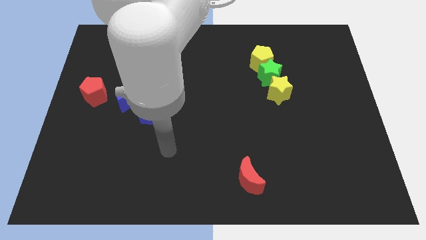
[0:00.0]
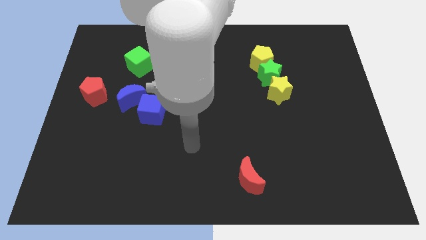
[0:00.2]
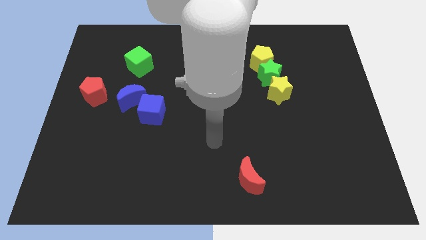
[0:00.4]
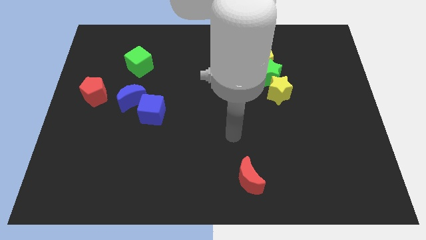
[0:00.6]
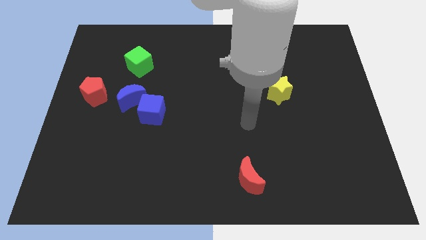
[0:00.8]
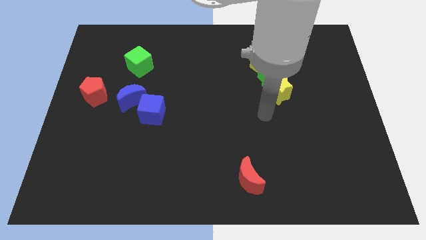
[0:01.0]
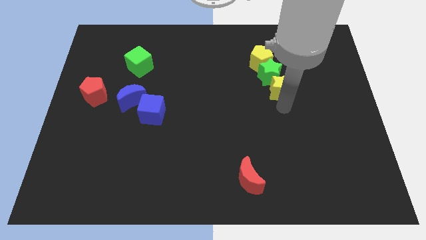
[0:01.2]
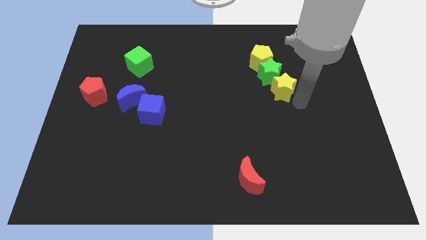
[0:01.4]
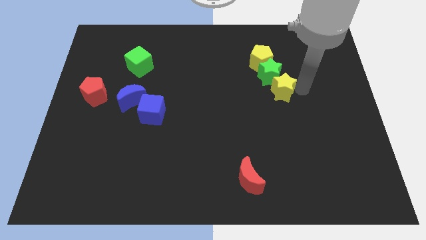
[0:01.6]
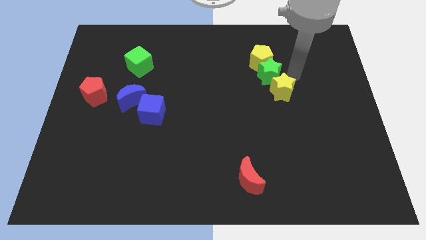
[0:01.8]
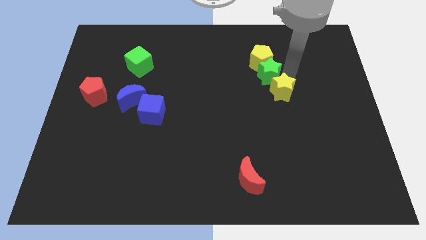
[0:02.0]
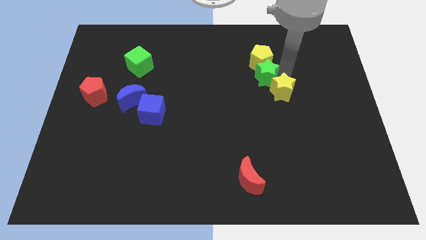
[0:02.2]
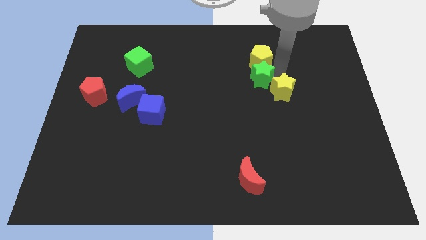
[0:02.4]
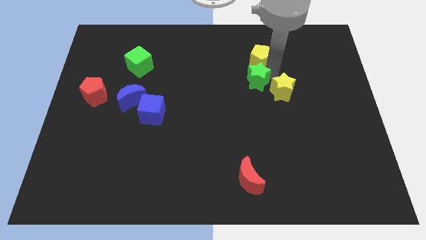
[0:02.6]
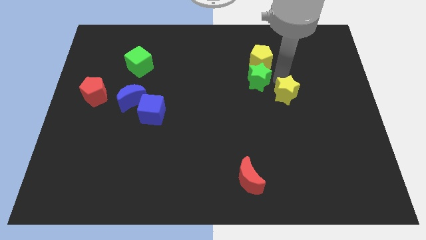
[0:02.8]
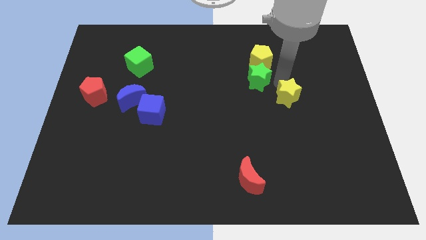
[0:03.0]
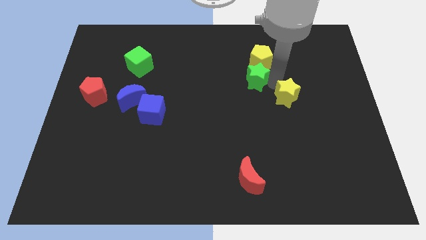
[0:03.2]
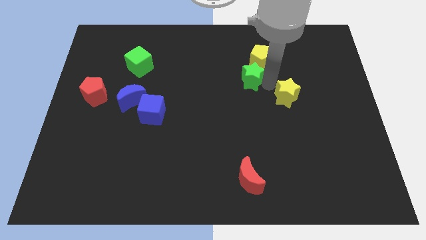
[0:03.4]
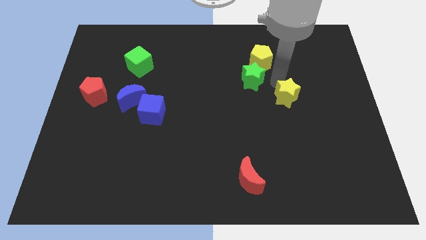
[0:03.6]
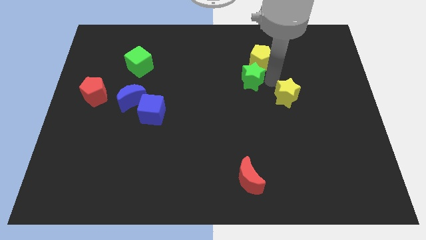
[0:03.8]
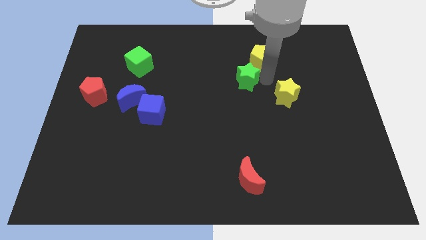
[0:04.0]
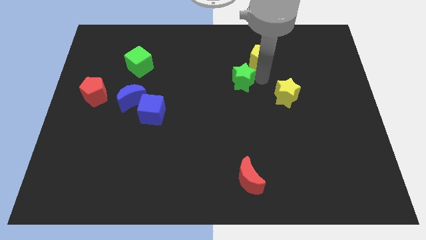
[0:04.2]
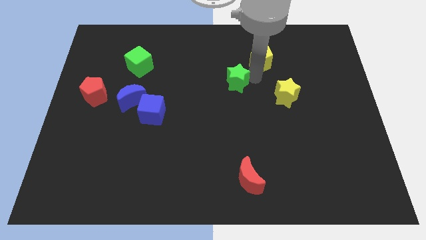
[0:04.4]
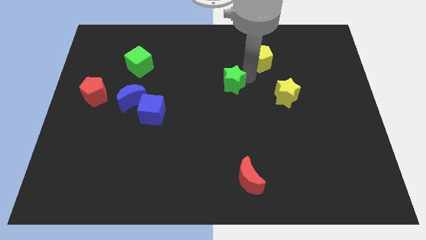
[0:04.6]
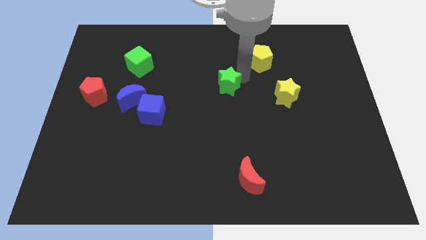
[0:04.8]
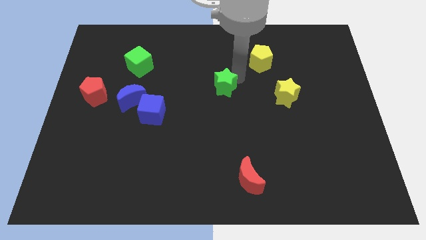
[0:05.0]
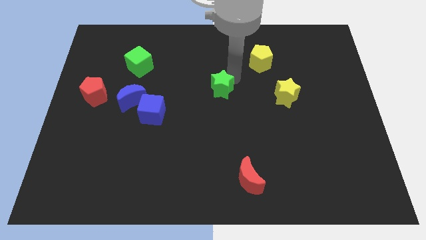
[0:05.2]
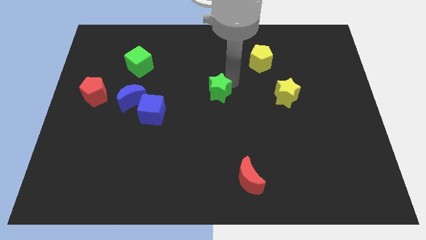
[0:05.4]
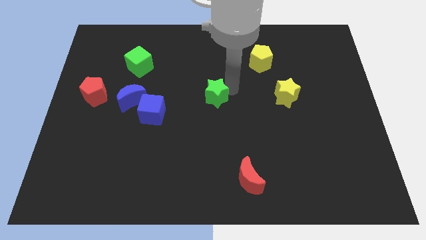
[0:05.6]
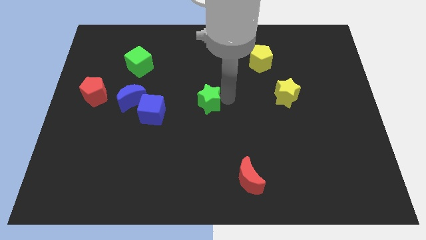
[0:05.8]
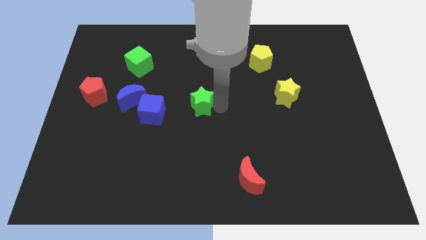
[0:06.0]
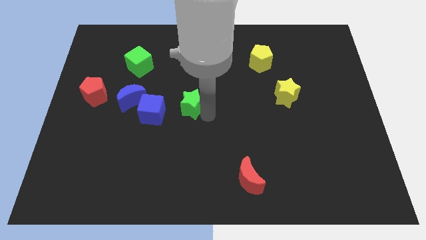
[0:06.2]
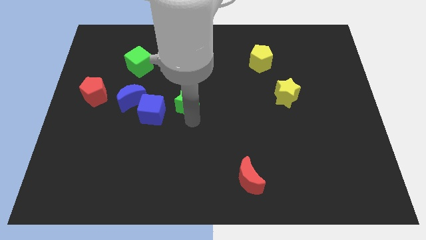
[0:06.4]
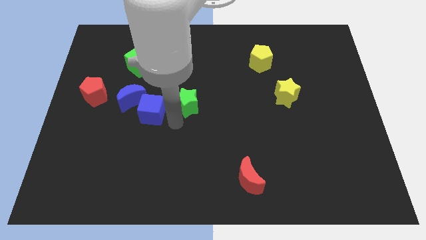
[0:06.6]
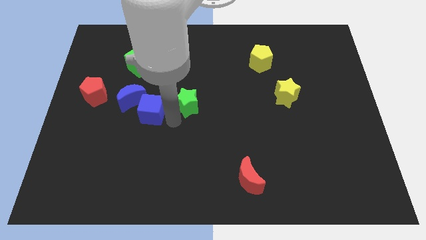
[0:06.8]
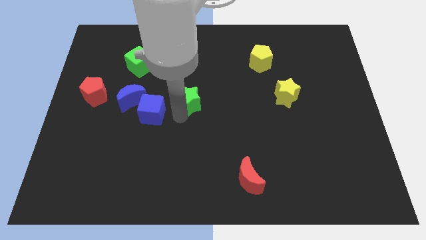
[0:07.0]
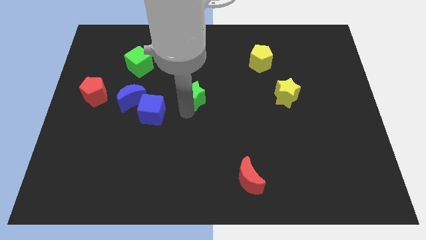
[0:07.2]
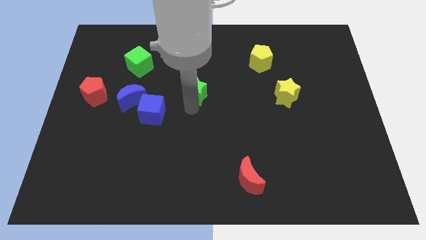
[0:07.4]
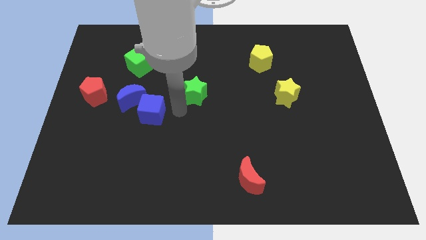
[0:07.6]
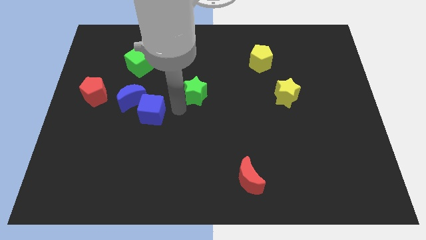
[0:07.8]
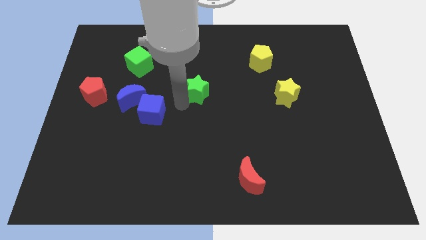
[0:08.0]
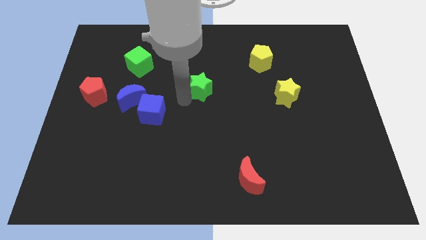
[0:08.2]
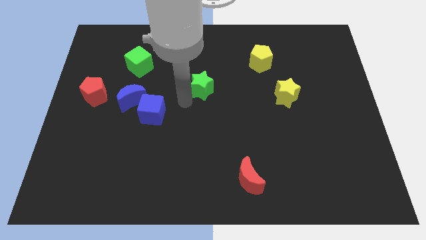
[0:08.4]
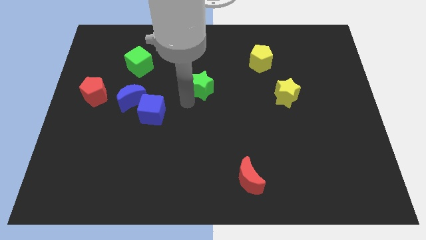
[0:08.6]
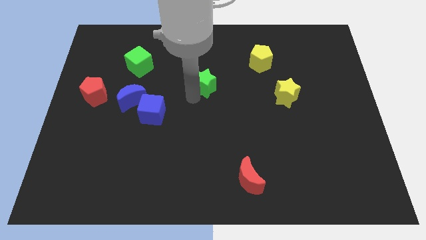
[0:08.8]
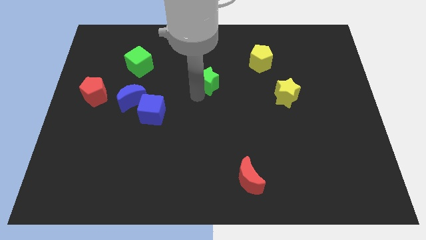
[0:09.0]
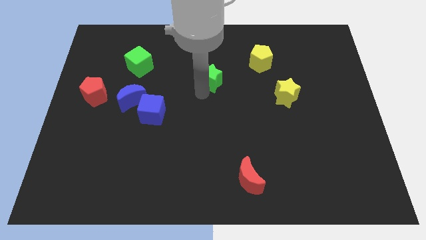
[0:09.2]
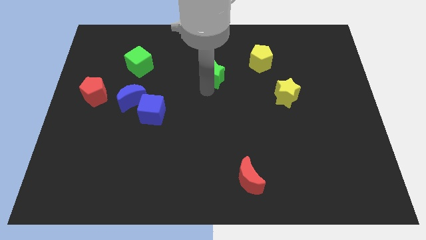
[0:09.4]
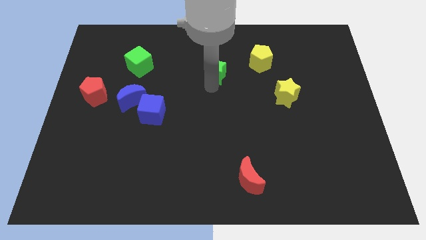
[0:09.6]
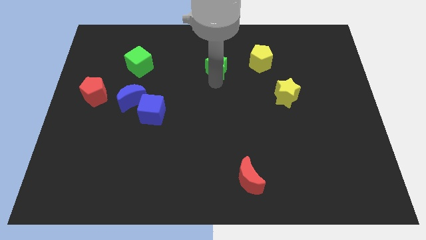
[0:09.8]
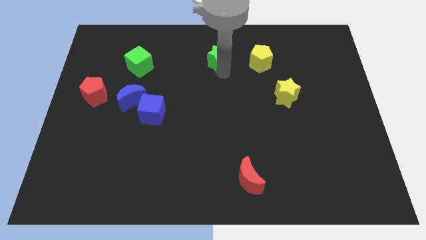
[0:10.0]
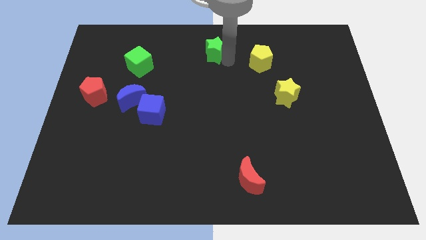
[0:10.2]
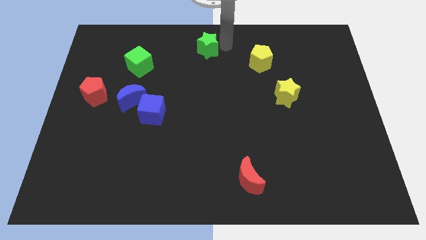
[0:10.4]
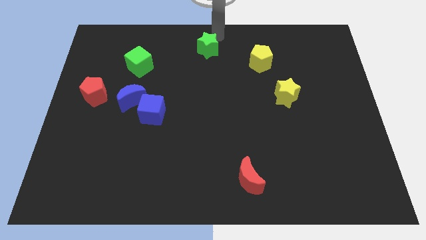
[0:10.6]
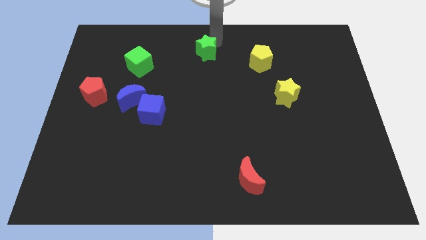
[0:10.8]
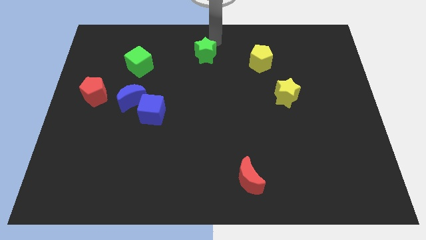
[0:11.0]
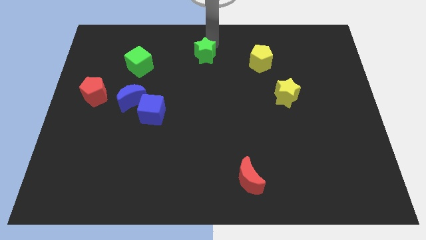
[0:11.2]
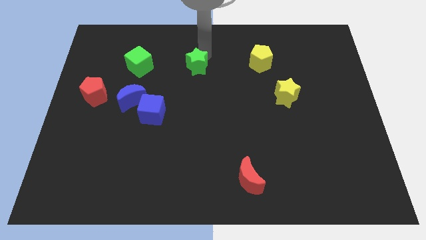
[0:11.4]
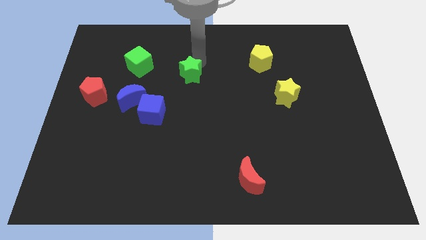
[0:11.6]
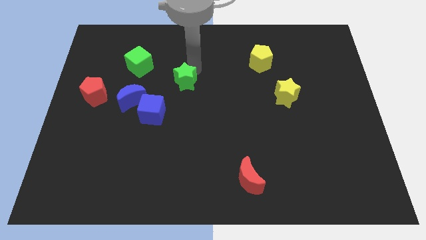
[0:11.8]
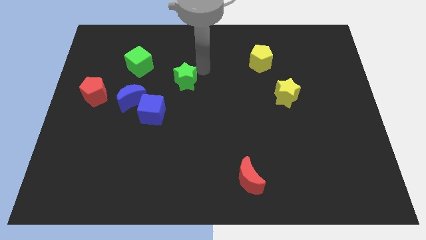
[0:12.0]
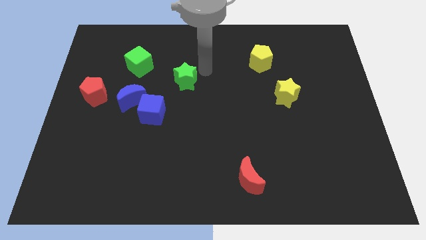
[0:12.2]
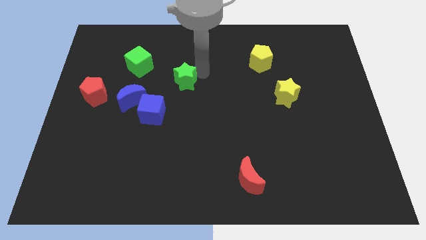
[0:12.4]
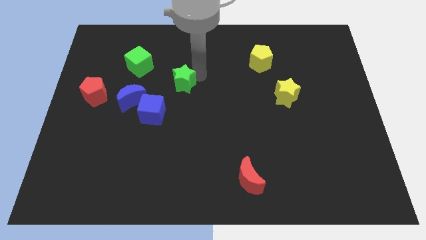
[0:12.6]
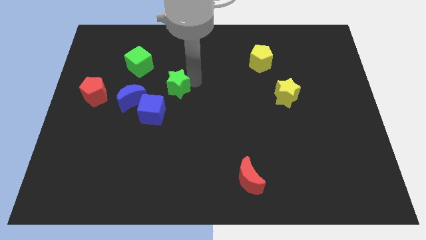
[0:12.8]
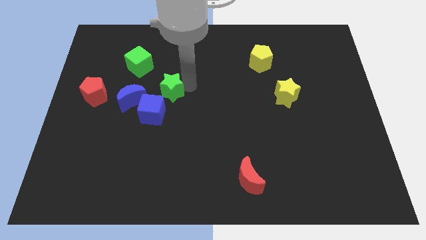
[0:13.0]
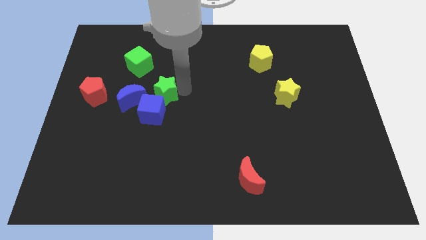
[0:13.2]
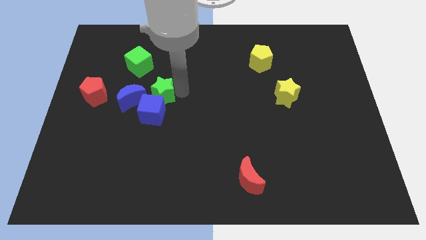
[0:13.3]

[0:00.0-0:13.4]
push the green star just right of the red pentagon

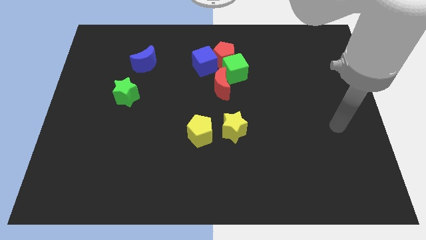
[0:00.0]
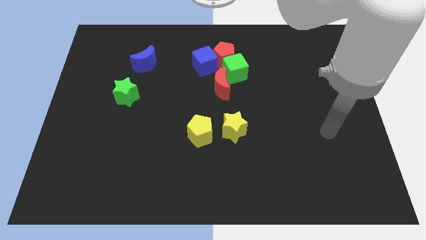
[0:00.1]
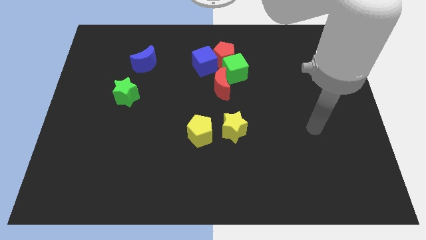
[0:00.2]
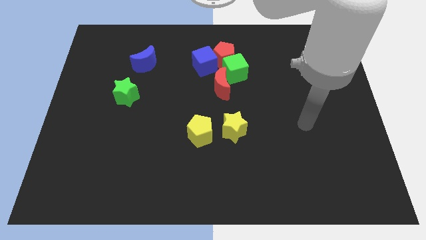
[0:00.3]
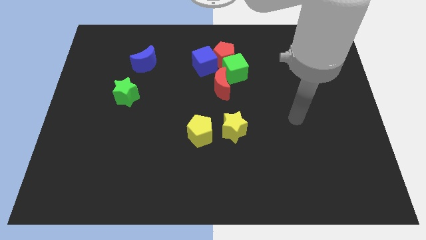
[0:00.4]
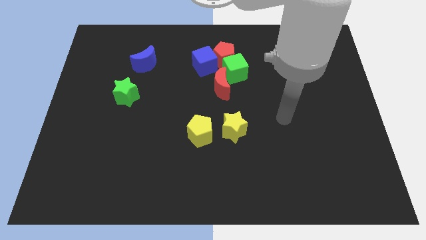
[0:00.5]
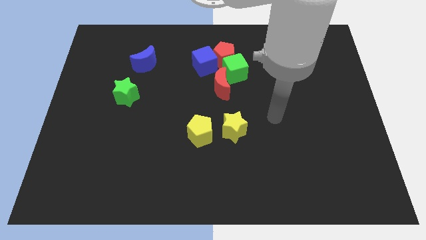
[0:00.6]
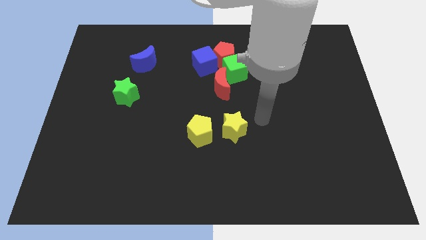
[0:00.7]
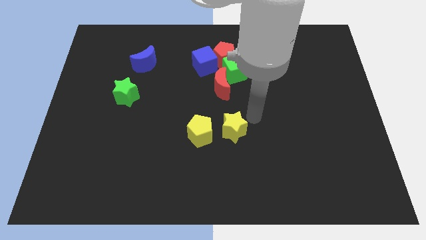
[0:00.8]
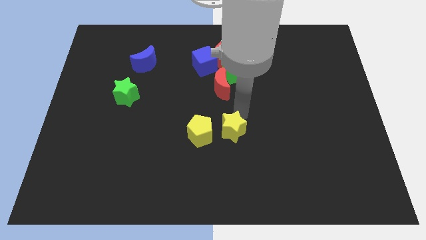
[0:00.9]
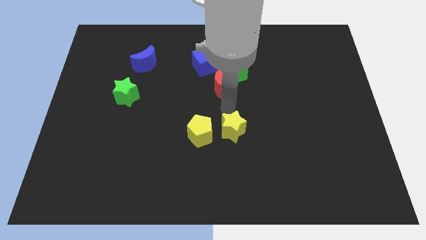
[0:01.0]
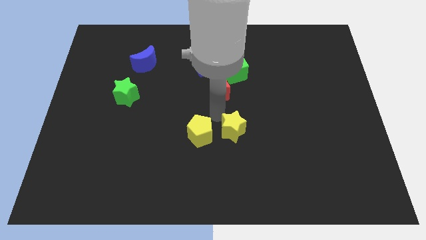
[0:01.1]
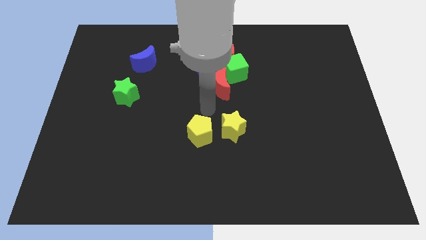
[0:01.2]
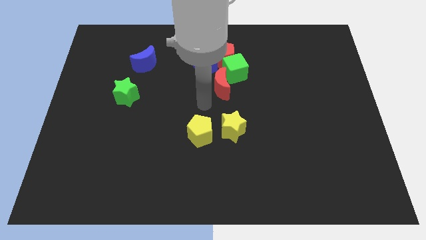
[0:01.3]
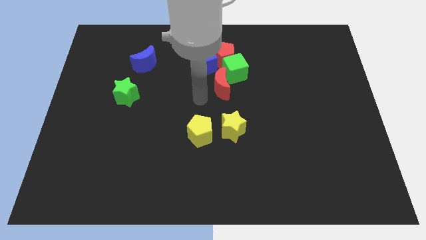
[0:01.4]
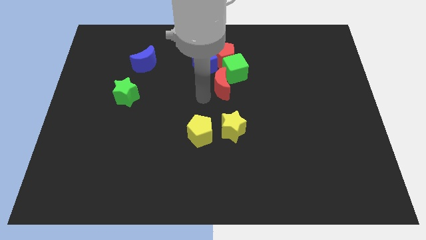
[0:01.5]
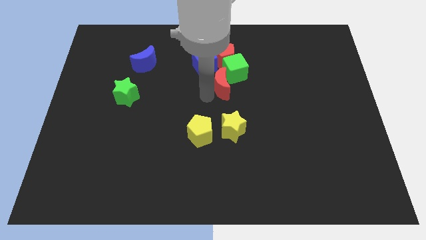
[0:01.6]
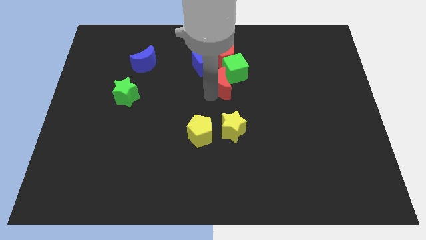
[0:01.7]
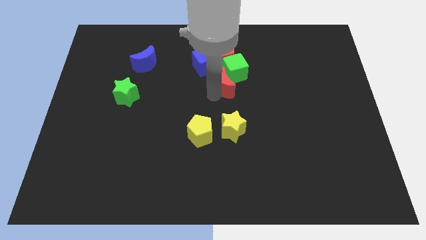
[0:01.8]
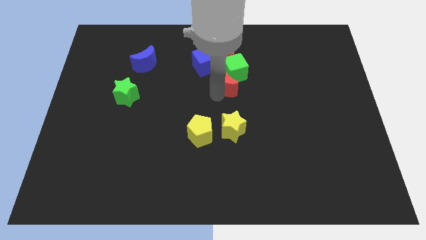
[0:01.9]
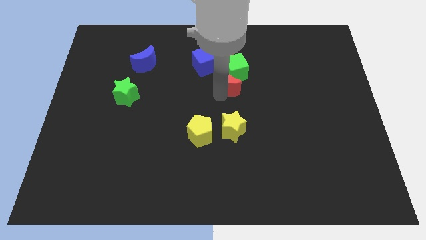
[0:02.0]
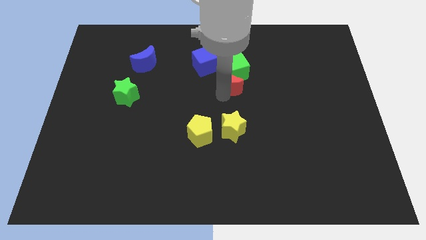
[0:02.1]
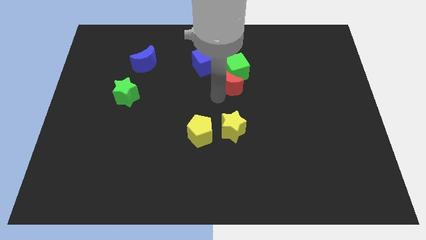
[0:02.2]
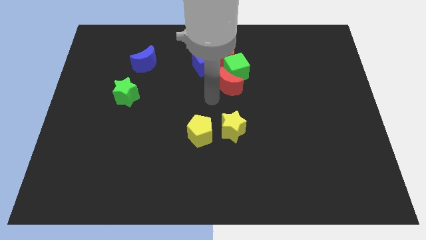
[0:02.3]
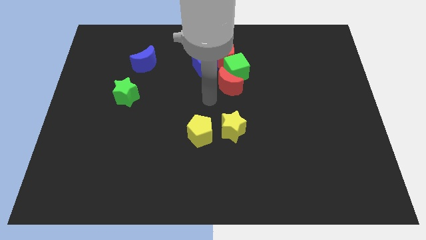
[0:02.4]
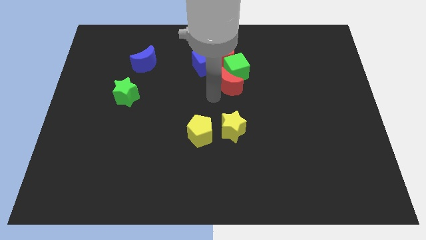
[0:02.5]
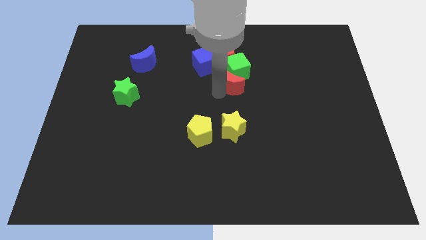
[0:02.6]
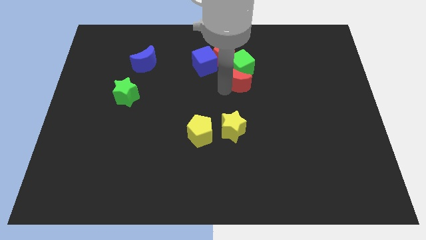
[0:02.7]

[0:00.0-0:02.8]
put the red moon to the bottom right of the red pentagon
